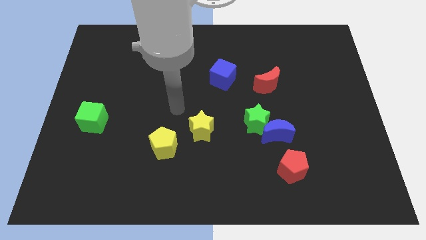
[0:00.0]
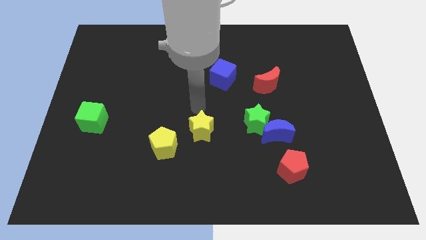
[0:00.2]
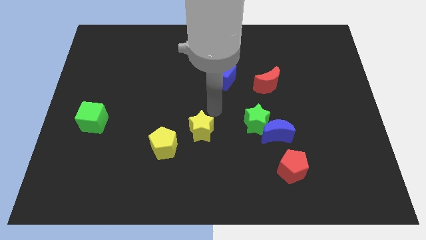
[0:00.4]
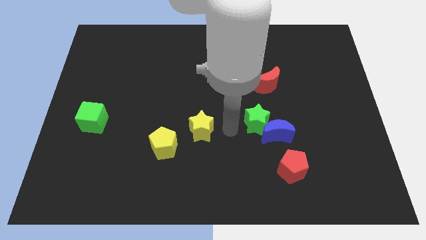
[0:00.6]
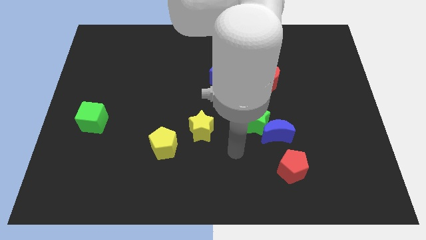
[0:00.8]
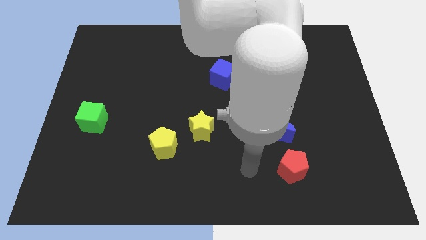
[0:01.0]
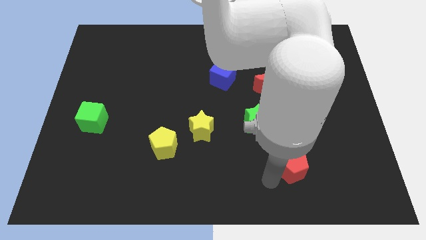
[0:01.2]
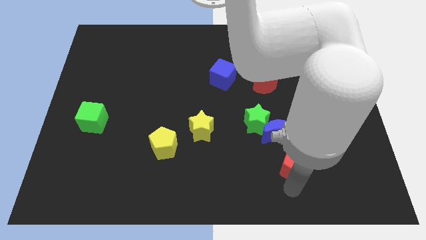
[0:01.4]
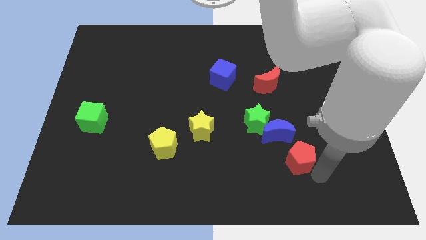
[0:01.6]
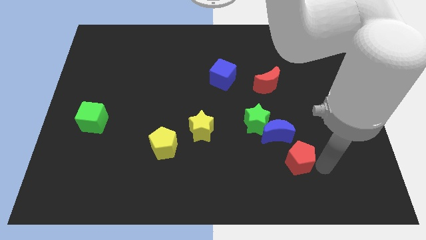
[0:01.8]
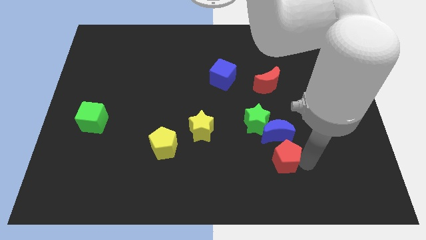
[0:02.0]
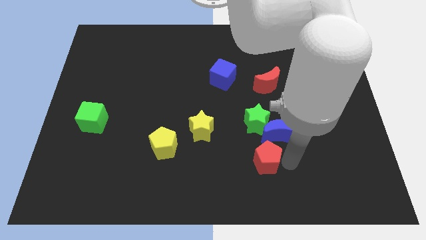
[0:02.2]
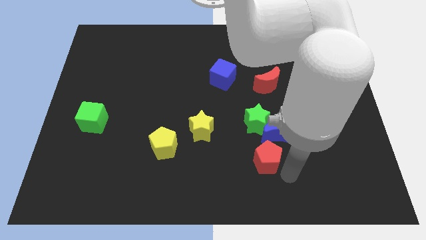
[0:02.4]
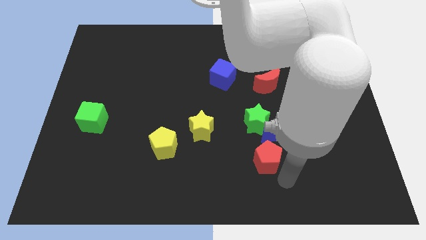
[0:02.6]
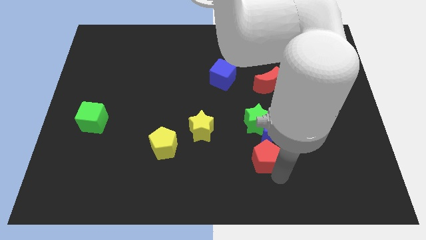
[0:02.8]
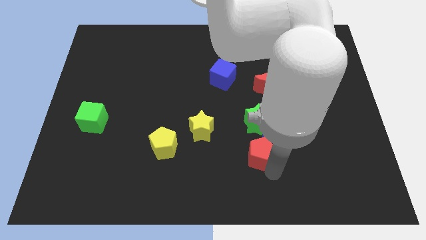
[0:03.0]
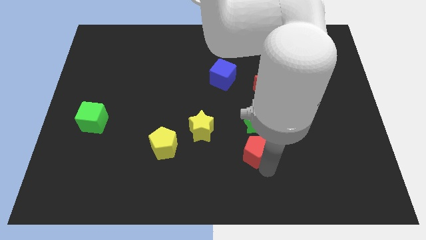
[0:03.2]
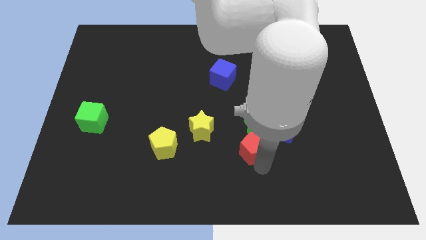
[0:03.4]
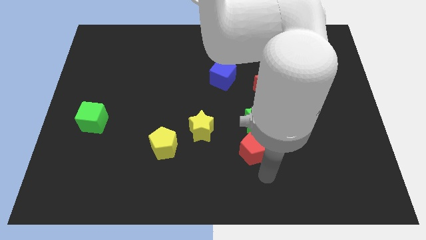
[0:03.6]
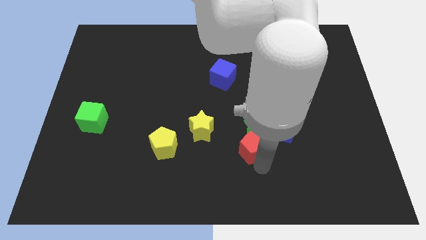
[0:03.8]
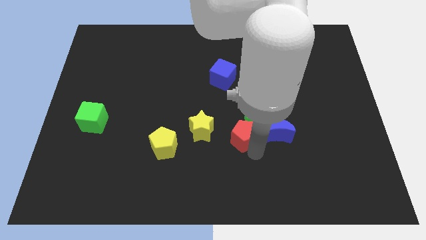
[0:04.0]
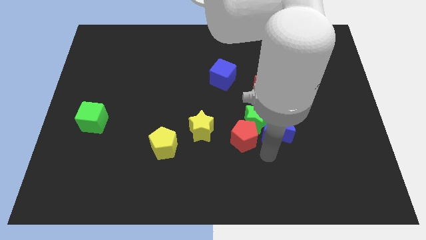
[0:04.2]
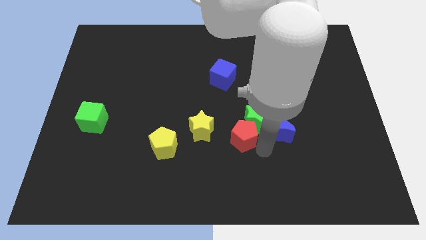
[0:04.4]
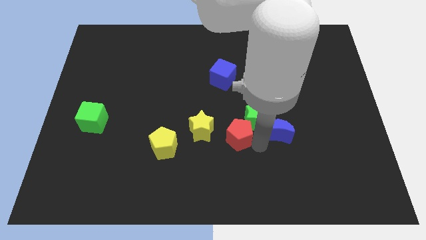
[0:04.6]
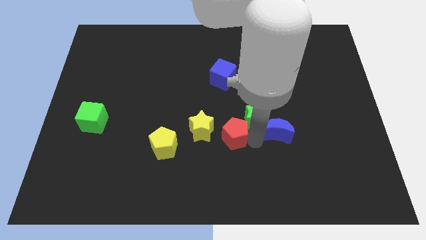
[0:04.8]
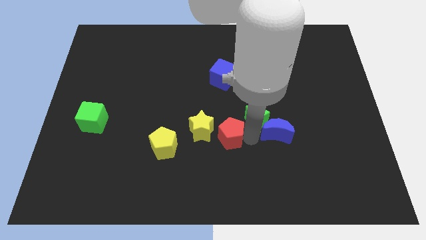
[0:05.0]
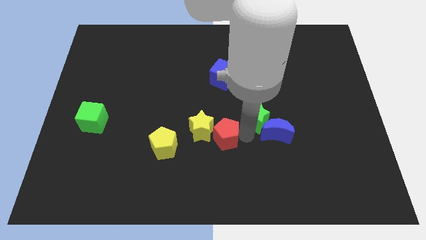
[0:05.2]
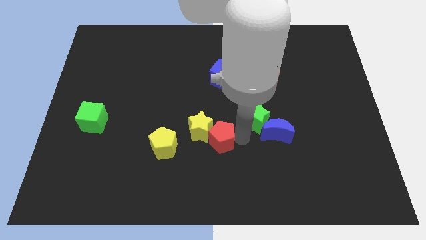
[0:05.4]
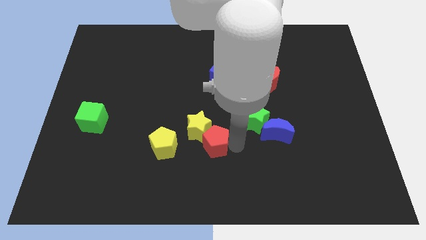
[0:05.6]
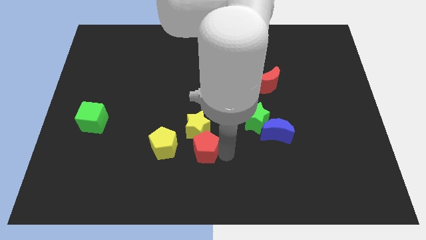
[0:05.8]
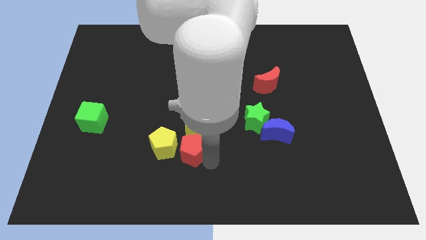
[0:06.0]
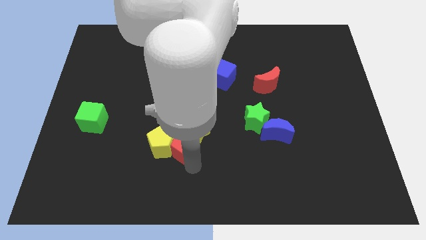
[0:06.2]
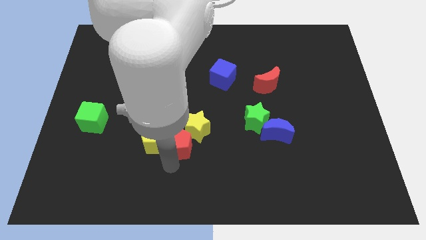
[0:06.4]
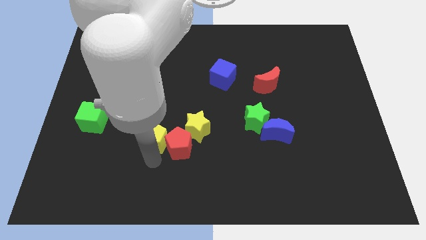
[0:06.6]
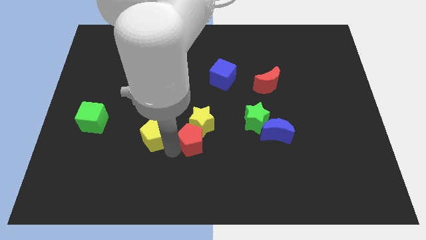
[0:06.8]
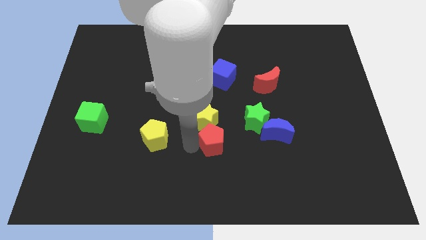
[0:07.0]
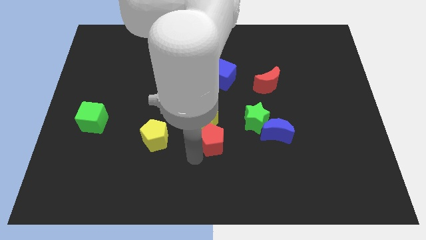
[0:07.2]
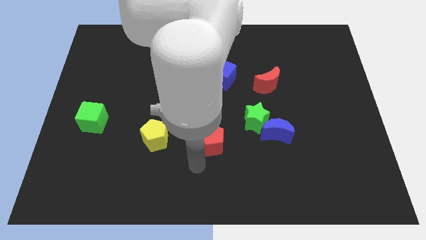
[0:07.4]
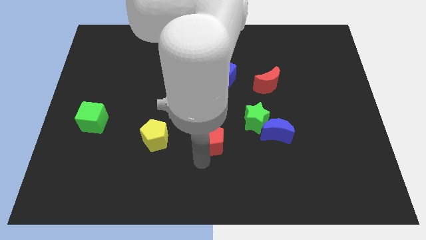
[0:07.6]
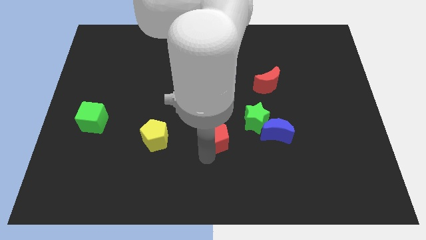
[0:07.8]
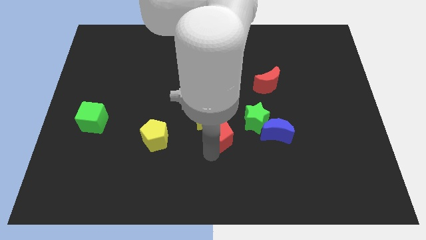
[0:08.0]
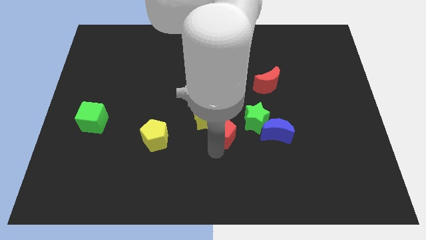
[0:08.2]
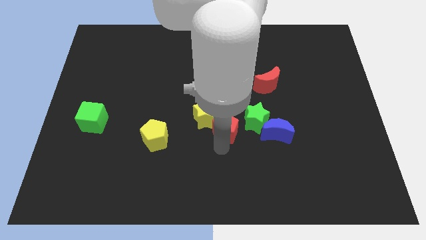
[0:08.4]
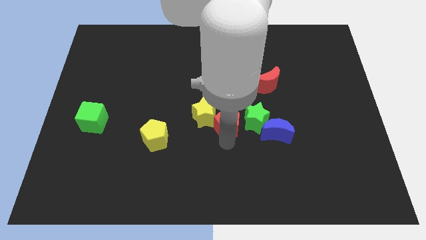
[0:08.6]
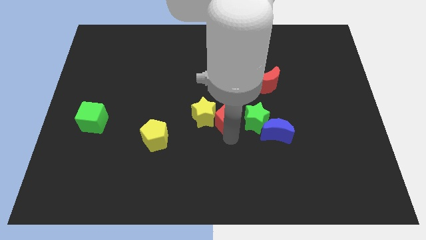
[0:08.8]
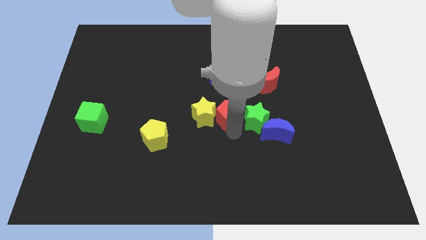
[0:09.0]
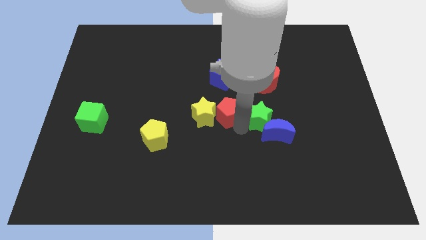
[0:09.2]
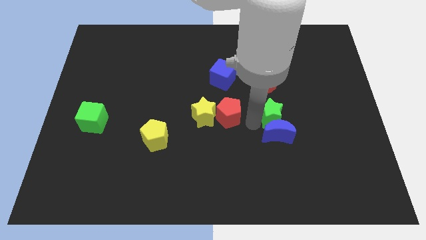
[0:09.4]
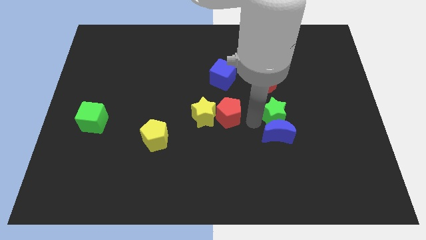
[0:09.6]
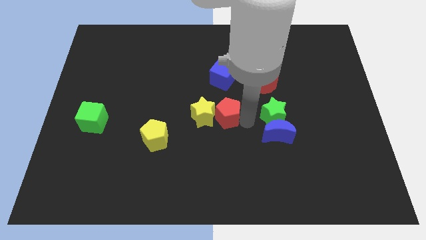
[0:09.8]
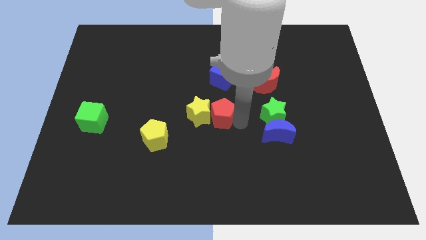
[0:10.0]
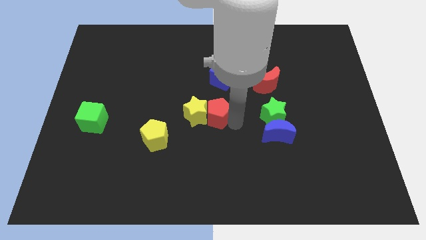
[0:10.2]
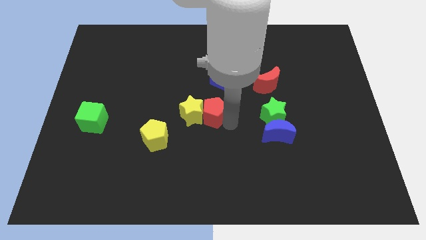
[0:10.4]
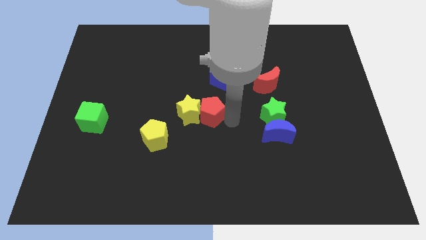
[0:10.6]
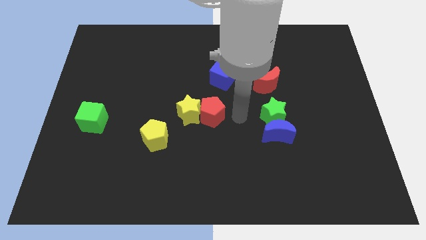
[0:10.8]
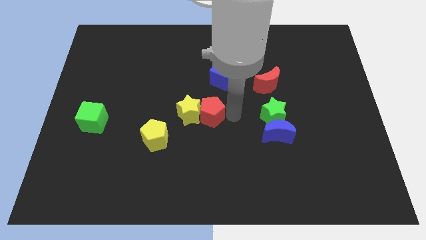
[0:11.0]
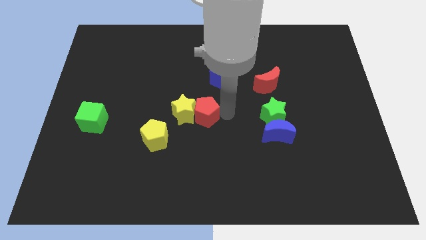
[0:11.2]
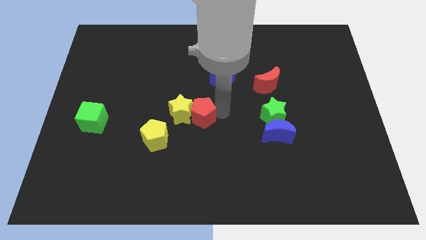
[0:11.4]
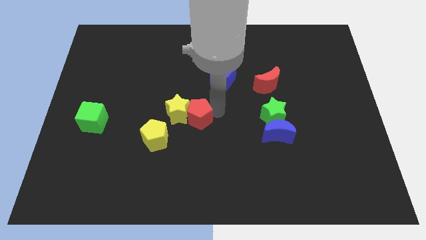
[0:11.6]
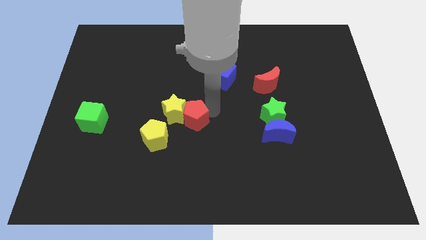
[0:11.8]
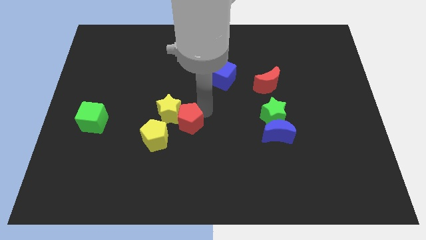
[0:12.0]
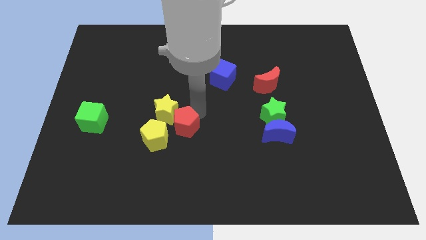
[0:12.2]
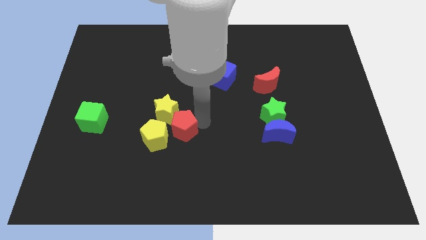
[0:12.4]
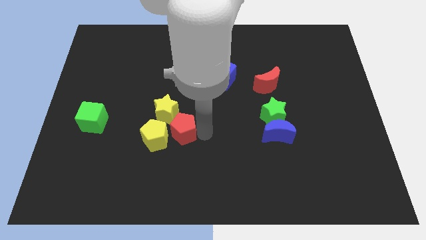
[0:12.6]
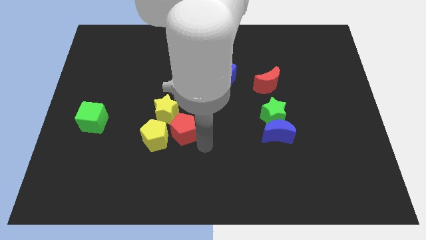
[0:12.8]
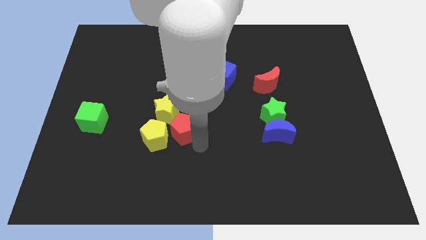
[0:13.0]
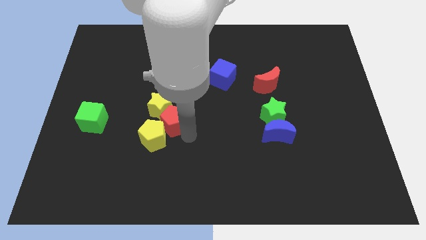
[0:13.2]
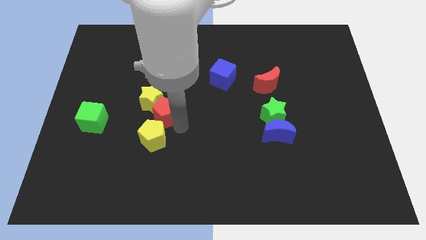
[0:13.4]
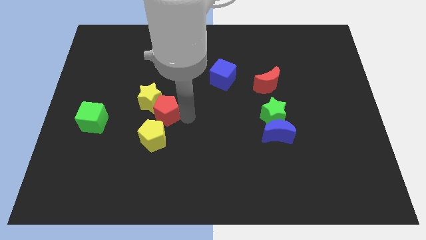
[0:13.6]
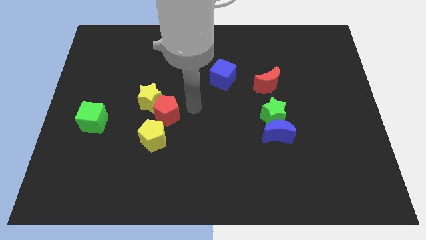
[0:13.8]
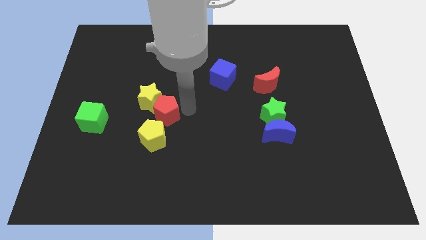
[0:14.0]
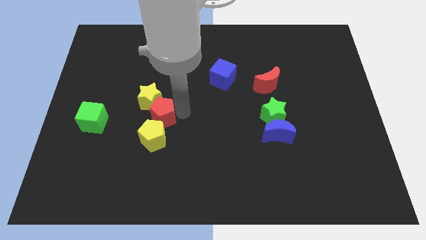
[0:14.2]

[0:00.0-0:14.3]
put the red pentagon to the right of the green cube

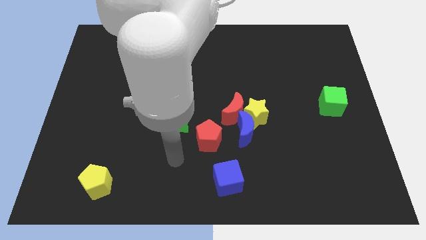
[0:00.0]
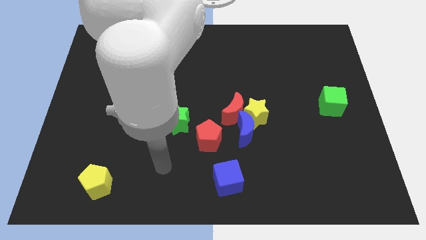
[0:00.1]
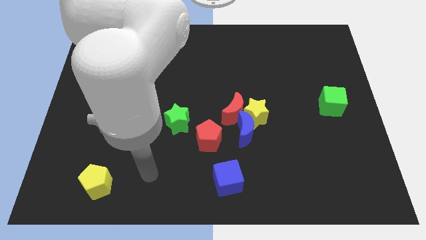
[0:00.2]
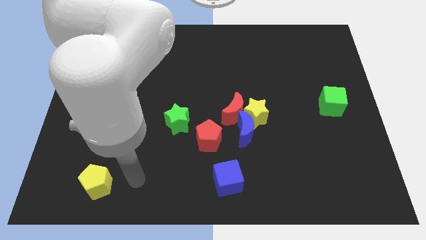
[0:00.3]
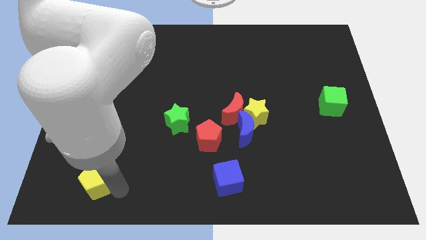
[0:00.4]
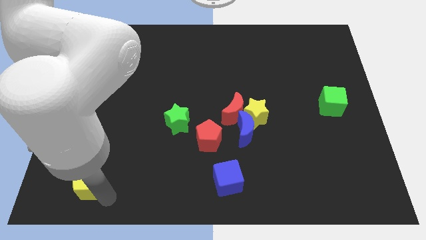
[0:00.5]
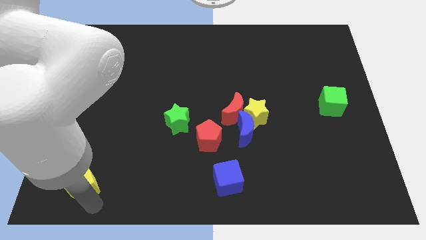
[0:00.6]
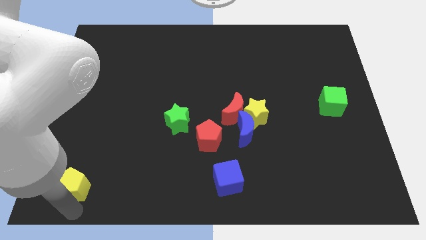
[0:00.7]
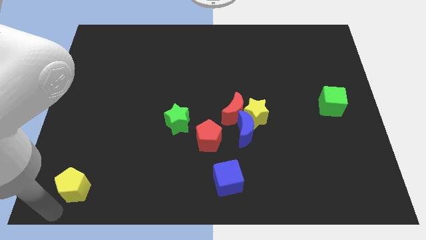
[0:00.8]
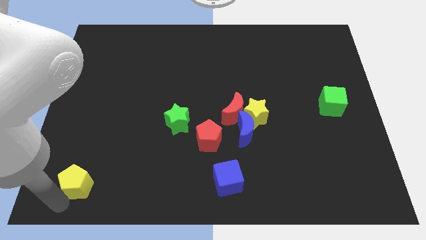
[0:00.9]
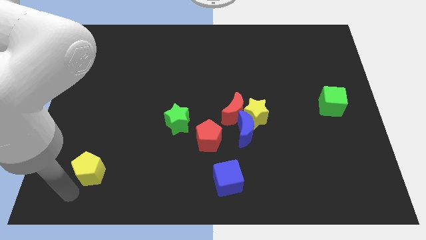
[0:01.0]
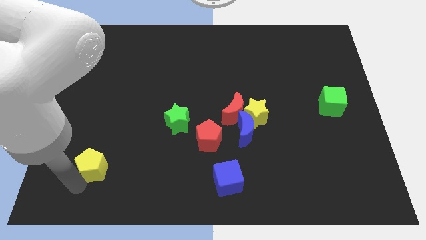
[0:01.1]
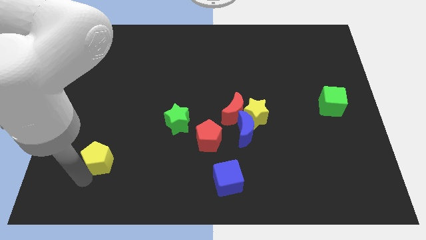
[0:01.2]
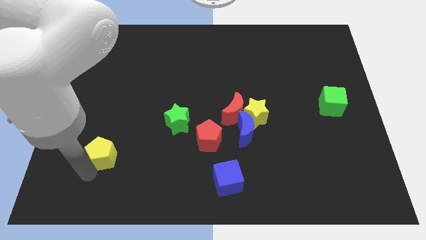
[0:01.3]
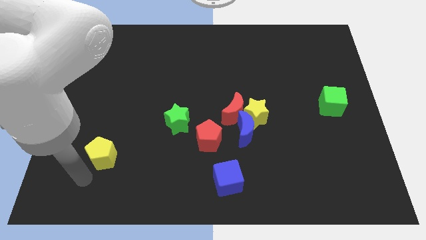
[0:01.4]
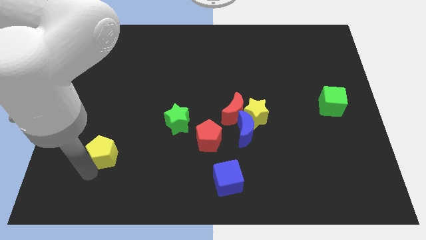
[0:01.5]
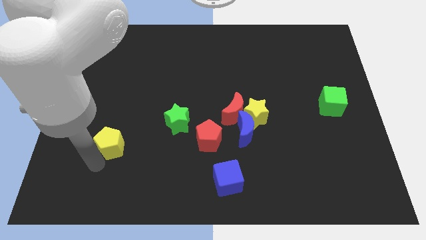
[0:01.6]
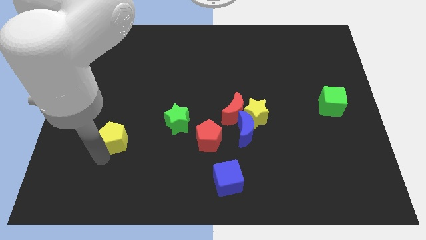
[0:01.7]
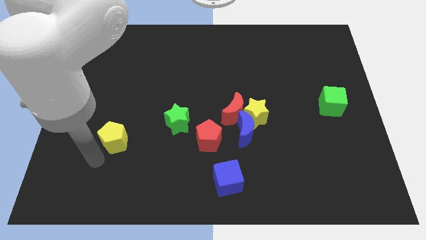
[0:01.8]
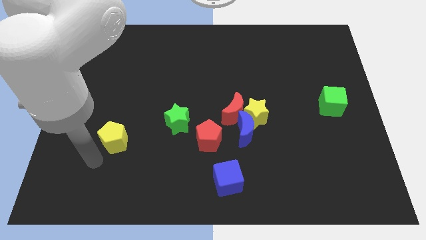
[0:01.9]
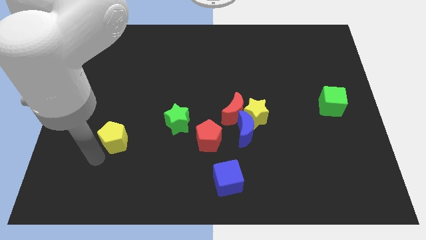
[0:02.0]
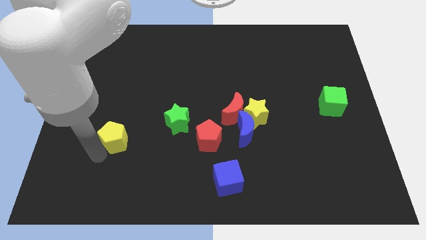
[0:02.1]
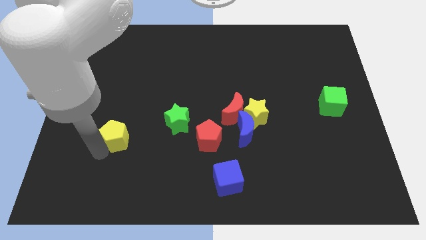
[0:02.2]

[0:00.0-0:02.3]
move the yellow pentagon left of the green star
